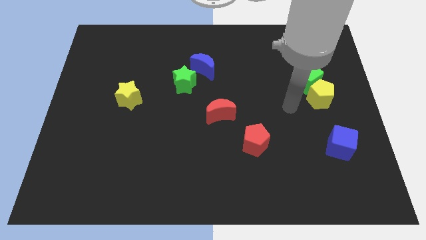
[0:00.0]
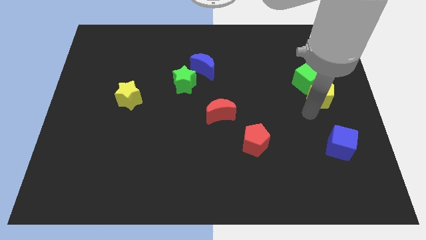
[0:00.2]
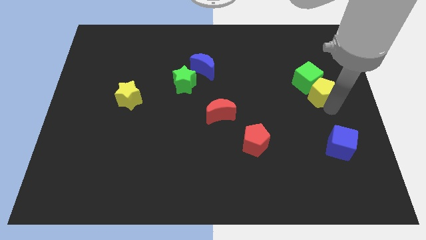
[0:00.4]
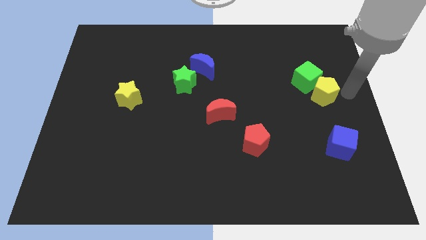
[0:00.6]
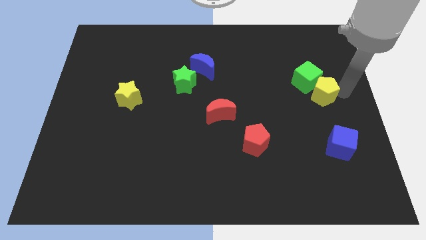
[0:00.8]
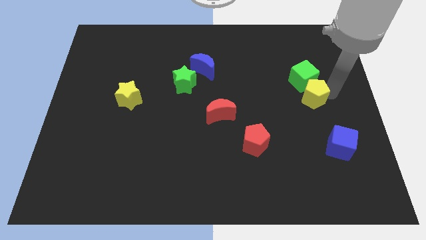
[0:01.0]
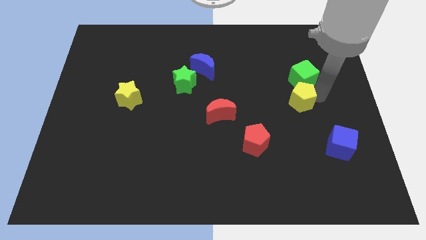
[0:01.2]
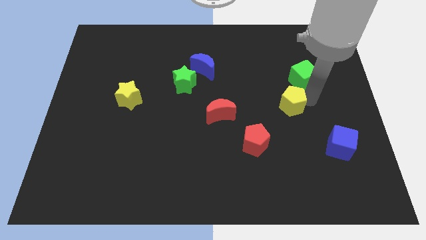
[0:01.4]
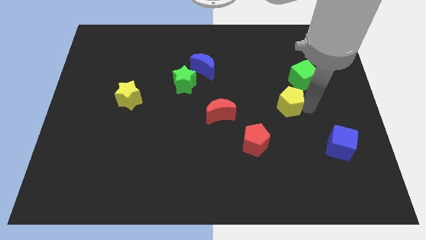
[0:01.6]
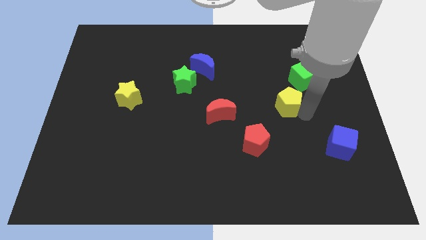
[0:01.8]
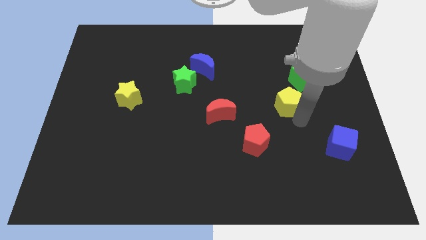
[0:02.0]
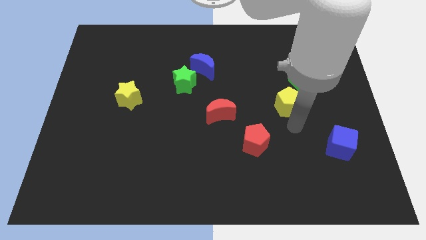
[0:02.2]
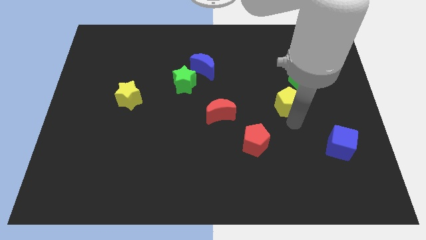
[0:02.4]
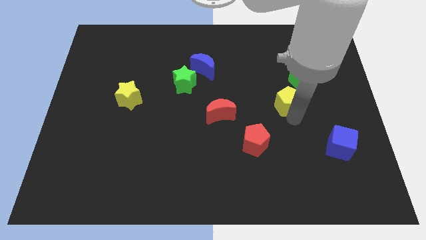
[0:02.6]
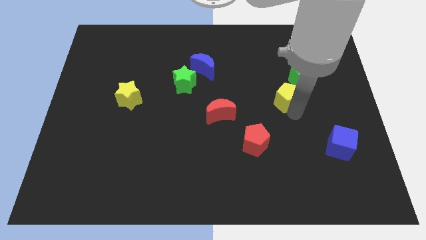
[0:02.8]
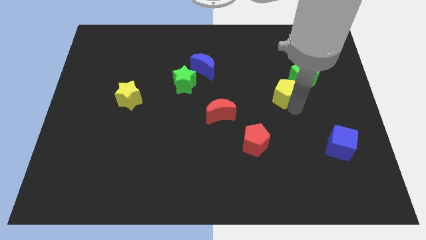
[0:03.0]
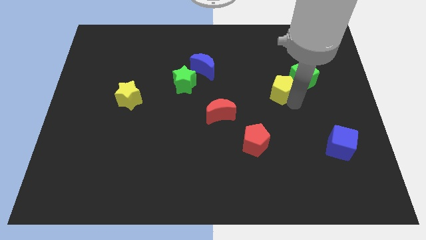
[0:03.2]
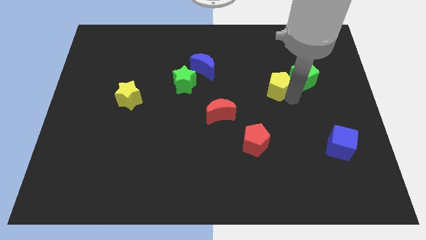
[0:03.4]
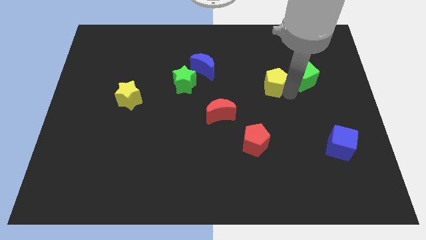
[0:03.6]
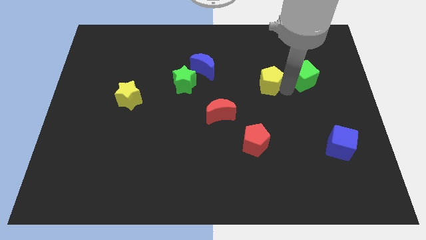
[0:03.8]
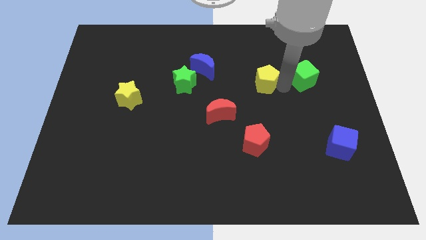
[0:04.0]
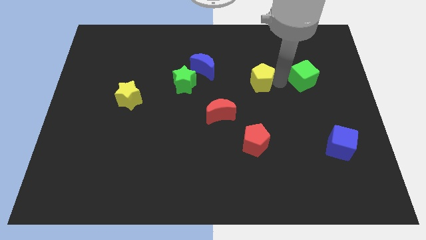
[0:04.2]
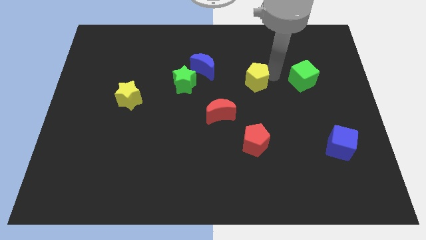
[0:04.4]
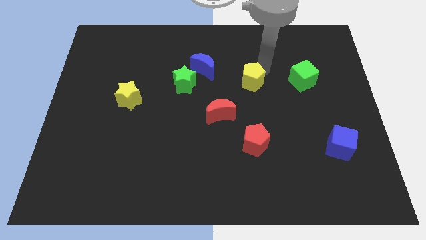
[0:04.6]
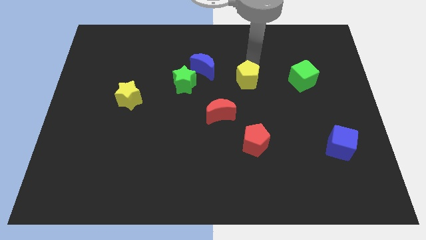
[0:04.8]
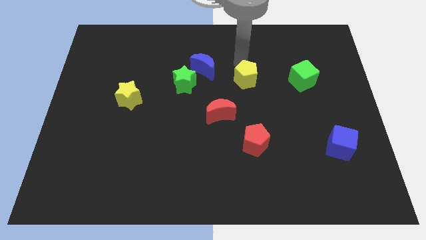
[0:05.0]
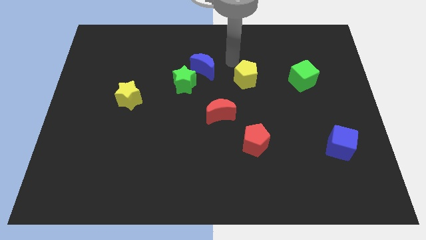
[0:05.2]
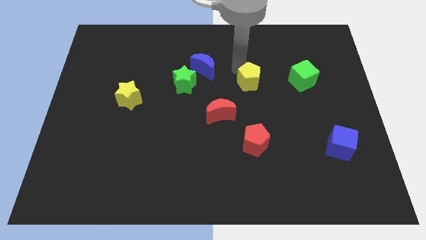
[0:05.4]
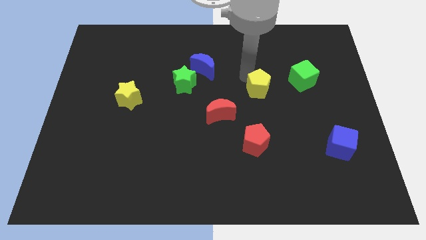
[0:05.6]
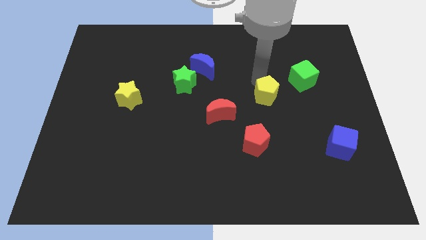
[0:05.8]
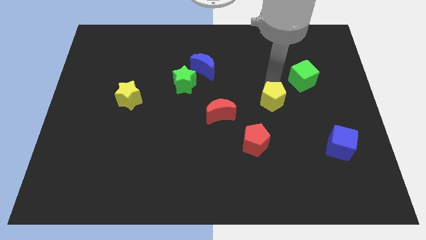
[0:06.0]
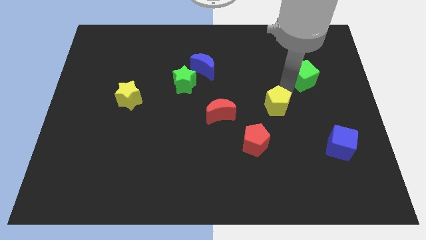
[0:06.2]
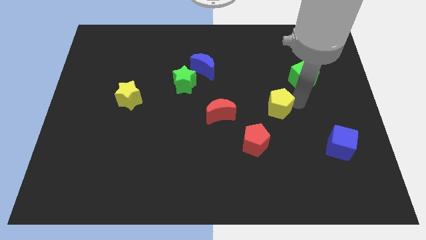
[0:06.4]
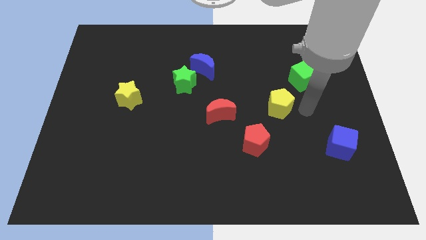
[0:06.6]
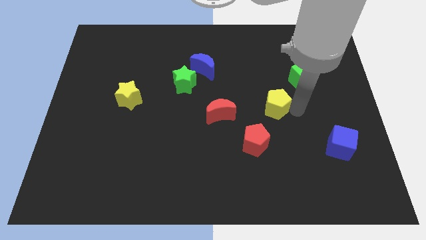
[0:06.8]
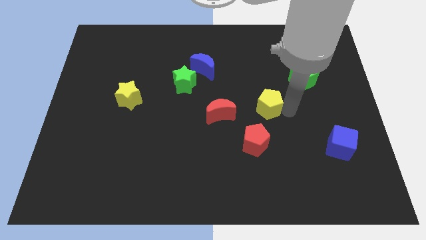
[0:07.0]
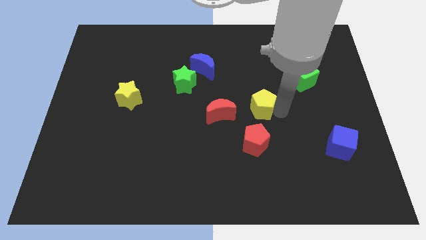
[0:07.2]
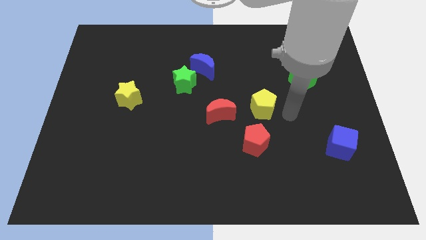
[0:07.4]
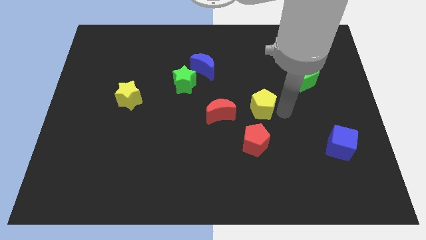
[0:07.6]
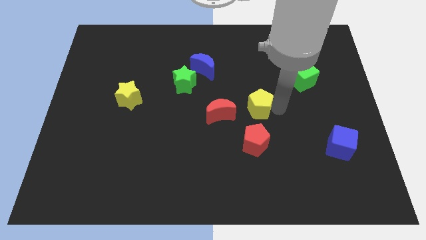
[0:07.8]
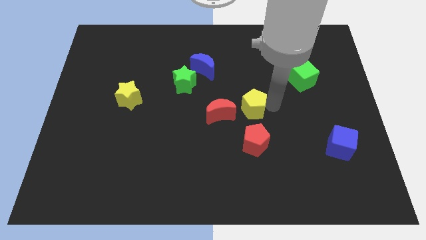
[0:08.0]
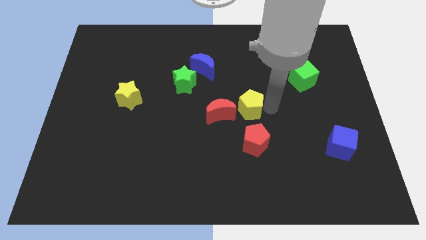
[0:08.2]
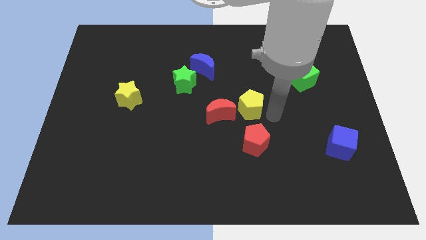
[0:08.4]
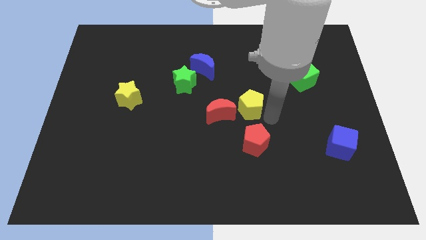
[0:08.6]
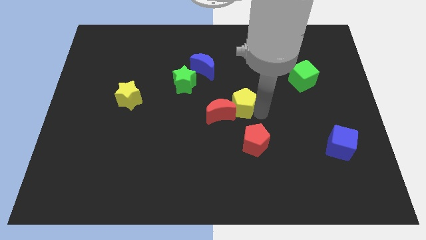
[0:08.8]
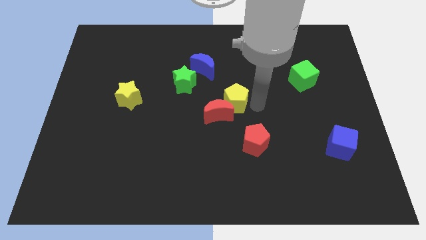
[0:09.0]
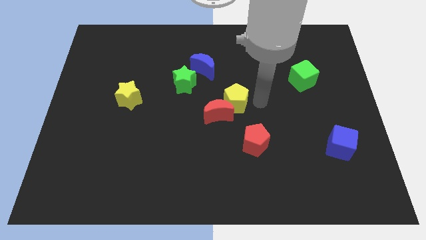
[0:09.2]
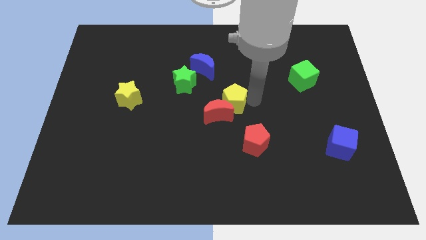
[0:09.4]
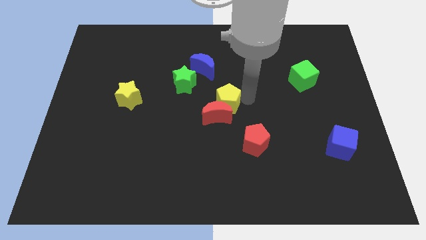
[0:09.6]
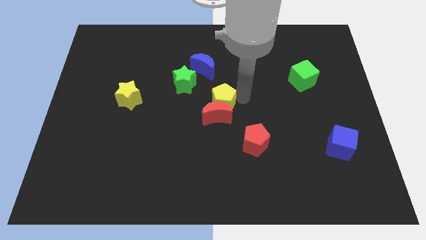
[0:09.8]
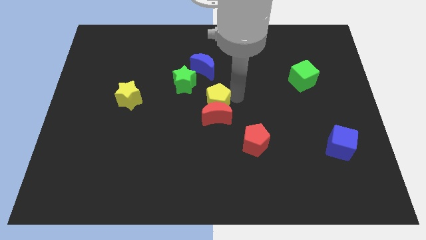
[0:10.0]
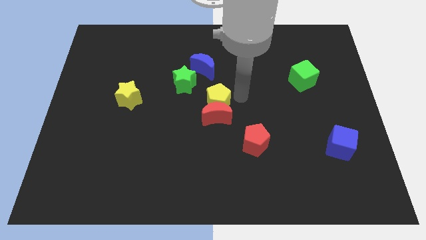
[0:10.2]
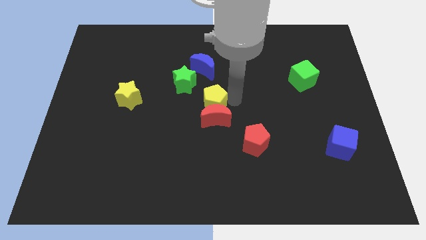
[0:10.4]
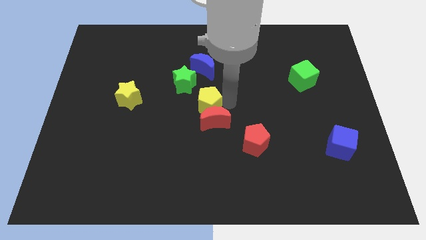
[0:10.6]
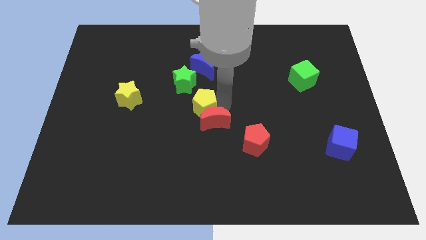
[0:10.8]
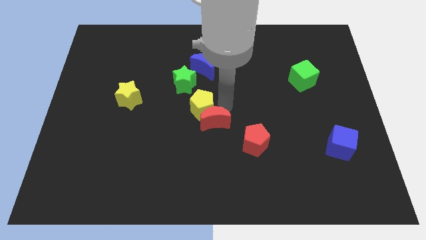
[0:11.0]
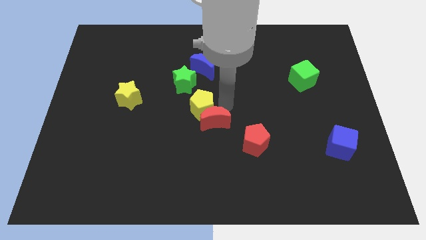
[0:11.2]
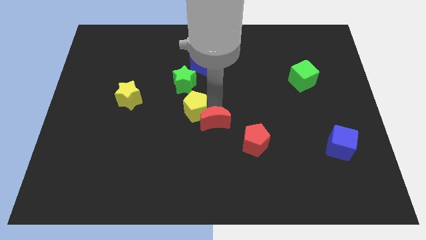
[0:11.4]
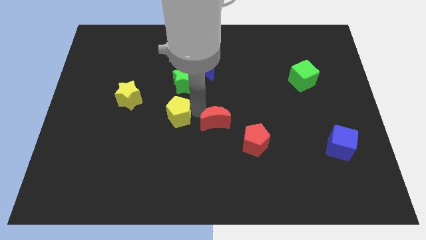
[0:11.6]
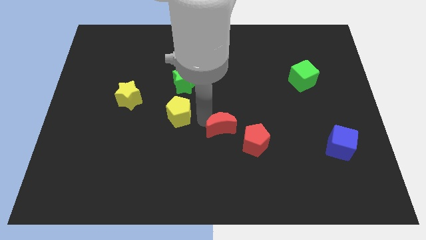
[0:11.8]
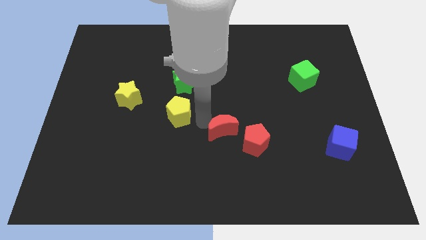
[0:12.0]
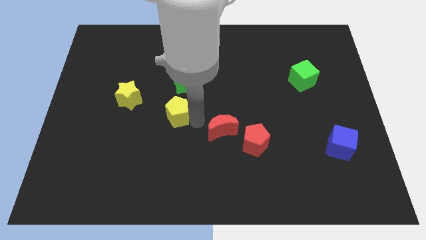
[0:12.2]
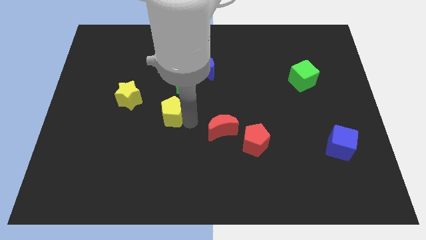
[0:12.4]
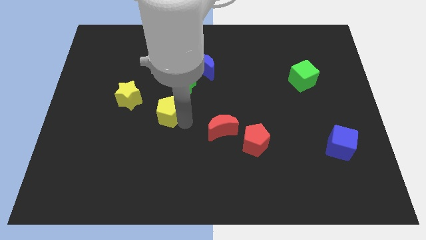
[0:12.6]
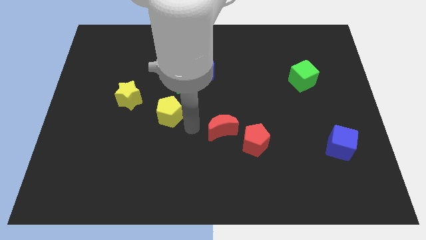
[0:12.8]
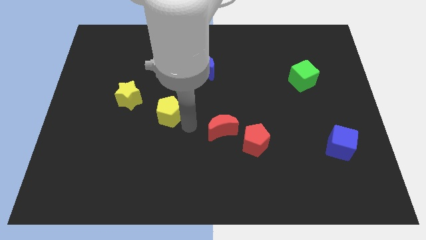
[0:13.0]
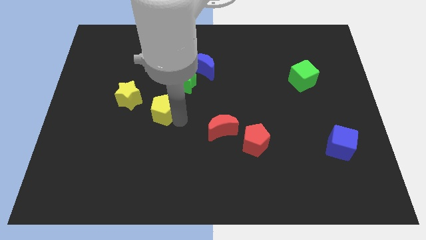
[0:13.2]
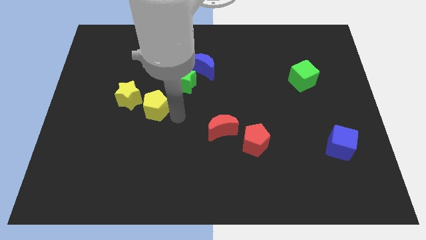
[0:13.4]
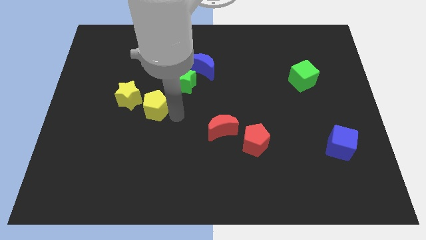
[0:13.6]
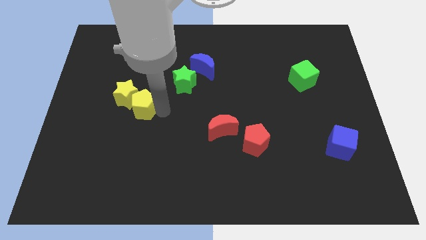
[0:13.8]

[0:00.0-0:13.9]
push the yellow pentagon next to the yellow star
